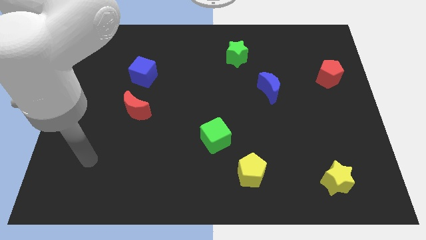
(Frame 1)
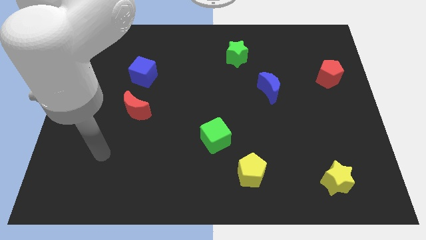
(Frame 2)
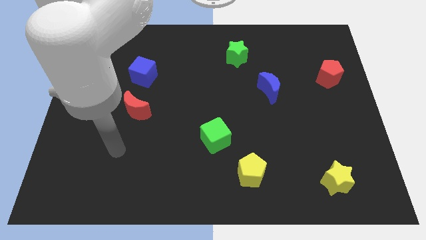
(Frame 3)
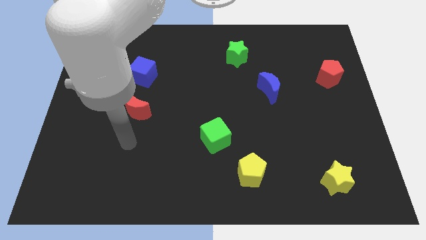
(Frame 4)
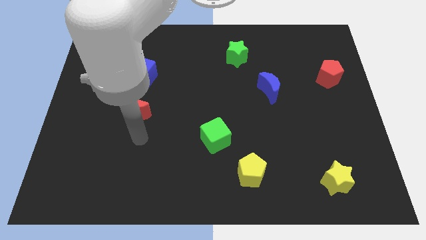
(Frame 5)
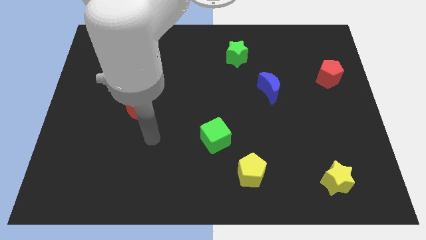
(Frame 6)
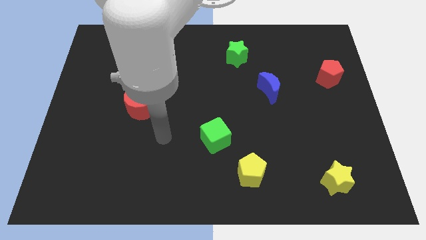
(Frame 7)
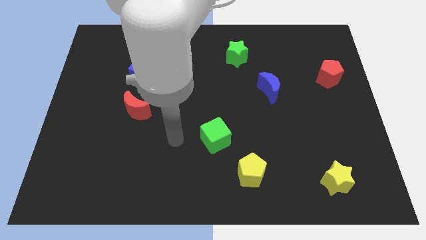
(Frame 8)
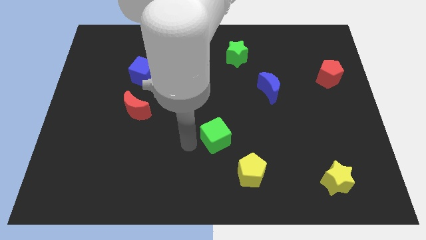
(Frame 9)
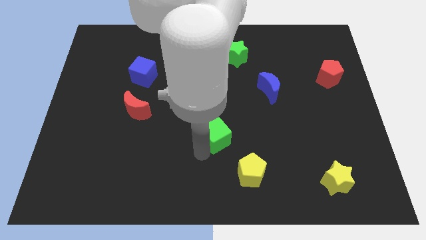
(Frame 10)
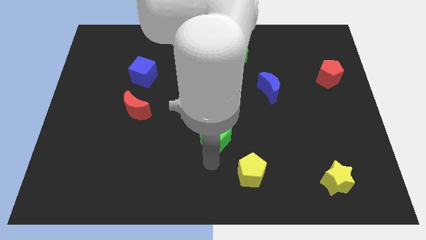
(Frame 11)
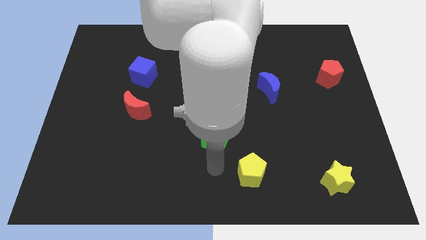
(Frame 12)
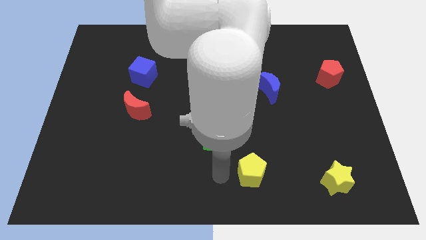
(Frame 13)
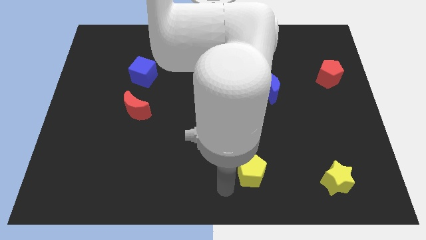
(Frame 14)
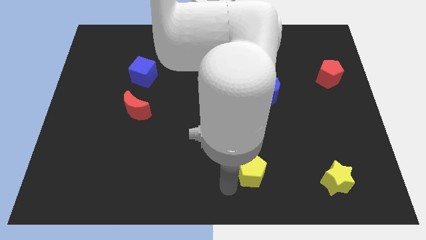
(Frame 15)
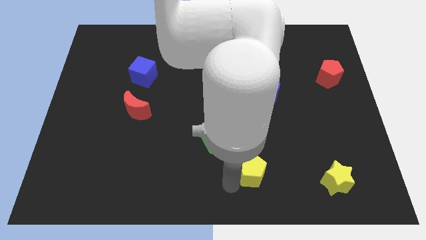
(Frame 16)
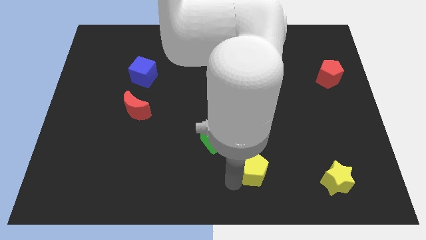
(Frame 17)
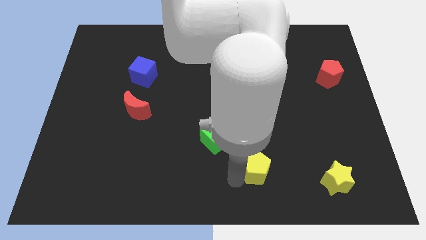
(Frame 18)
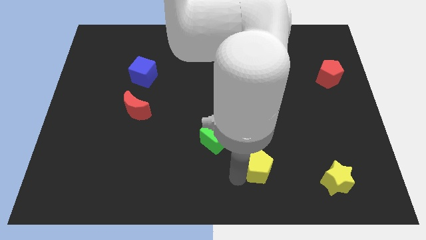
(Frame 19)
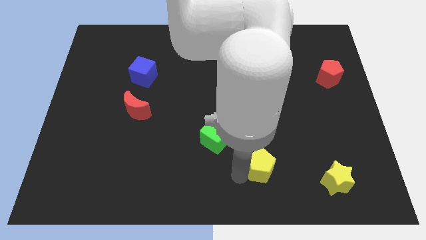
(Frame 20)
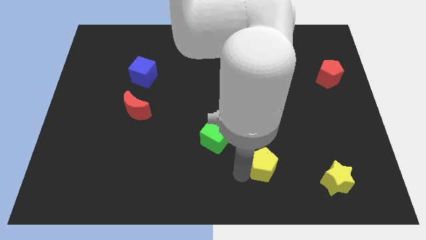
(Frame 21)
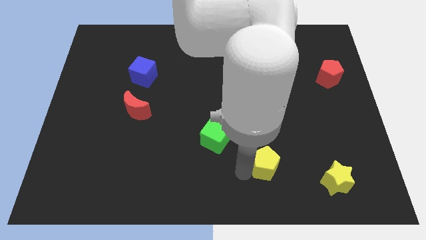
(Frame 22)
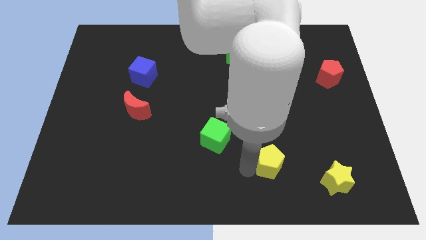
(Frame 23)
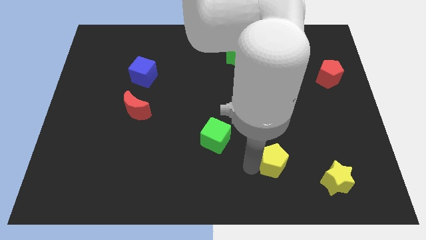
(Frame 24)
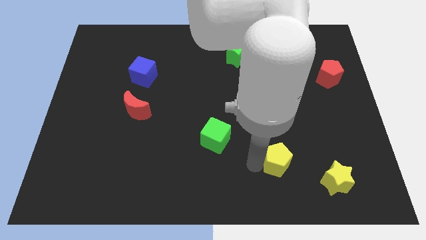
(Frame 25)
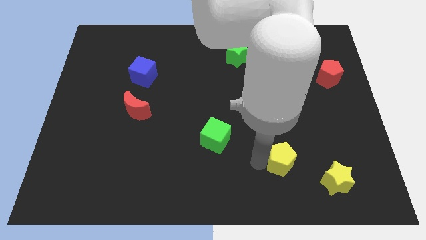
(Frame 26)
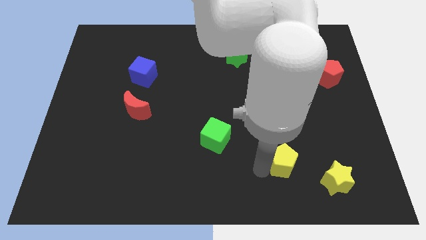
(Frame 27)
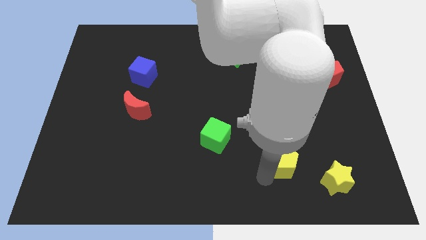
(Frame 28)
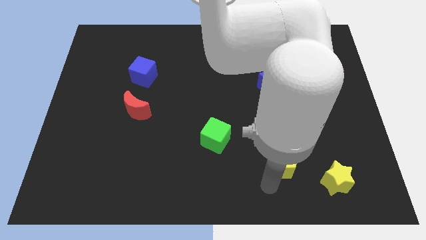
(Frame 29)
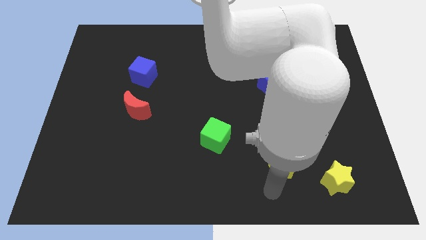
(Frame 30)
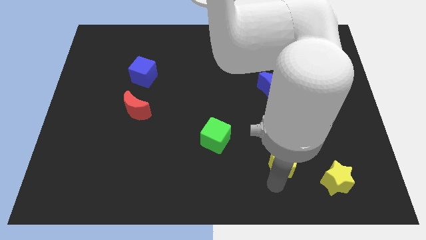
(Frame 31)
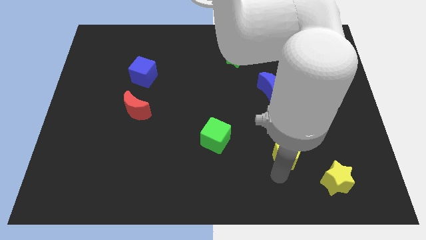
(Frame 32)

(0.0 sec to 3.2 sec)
slide the yellow pentagon upwards and right diagonally a little

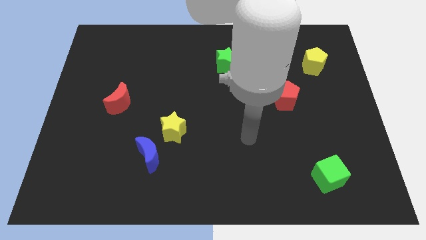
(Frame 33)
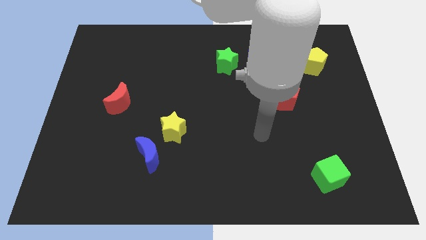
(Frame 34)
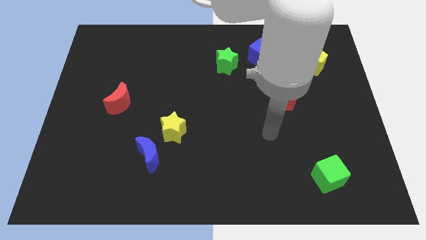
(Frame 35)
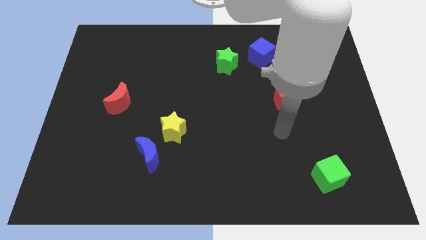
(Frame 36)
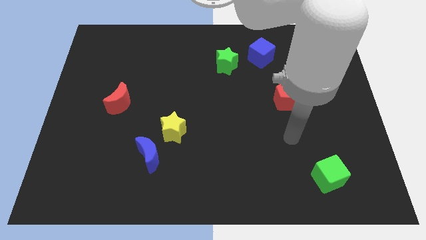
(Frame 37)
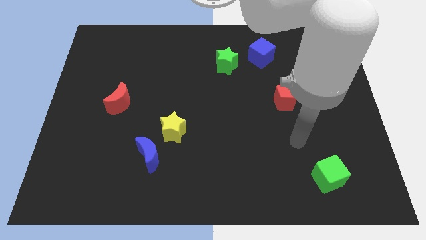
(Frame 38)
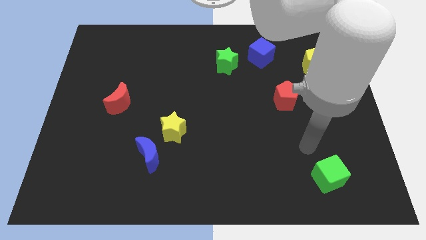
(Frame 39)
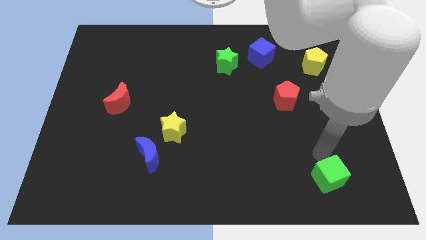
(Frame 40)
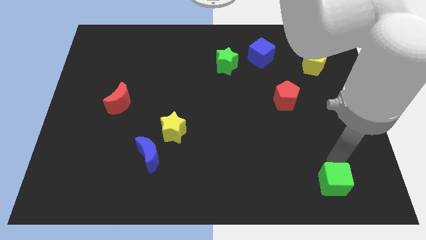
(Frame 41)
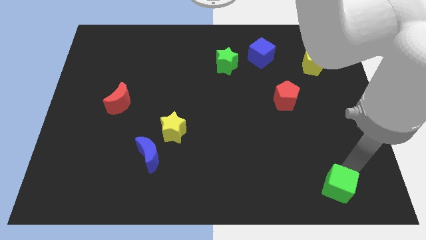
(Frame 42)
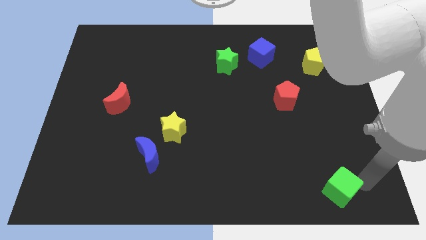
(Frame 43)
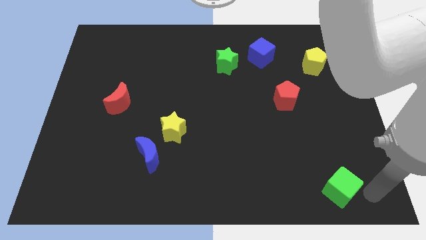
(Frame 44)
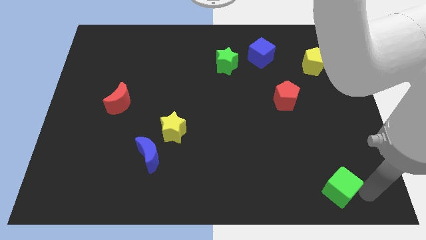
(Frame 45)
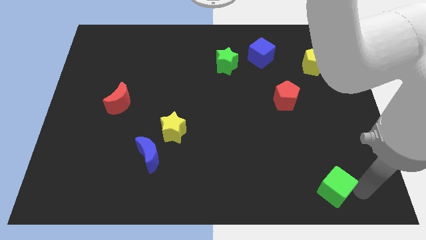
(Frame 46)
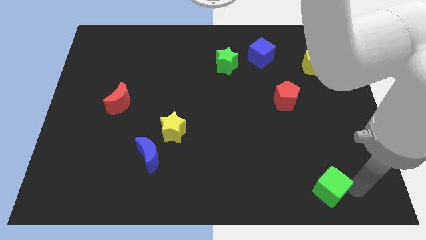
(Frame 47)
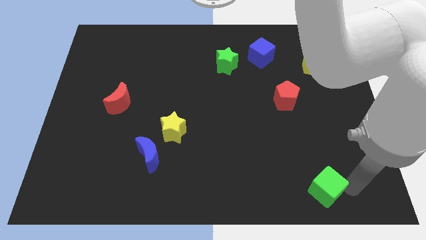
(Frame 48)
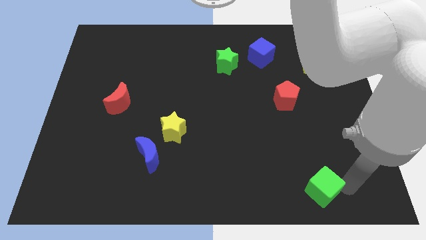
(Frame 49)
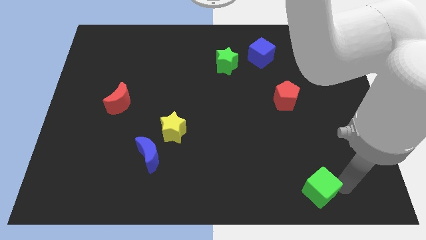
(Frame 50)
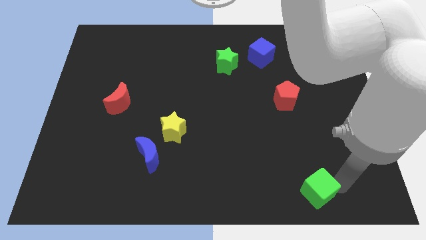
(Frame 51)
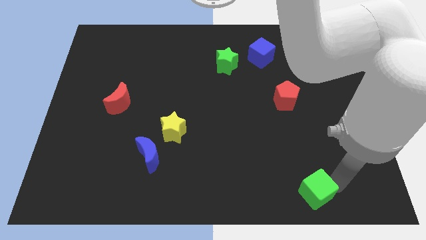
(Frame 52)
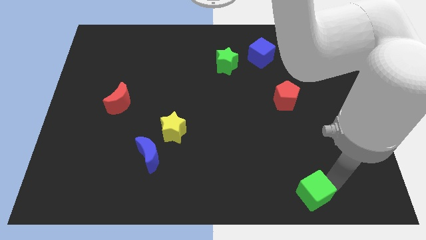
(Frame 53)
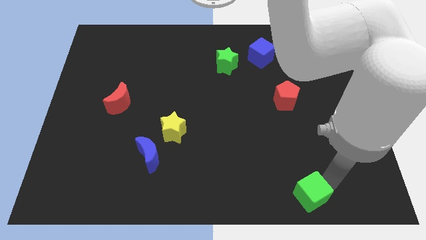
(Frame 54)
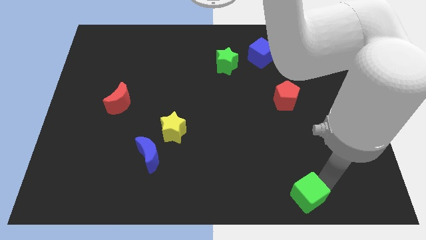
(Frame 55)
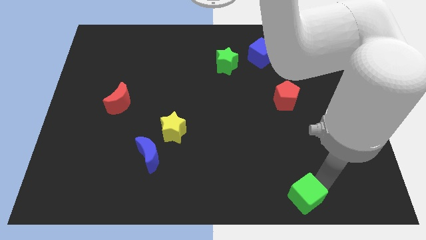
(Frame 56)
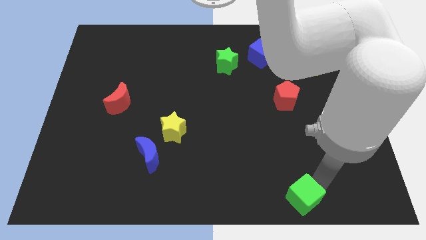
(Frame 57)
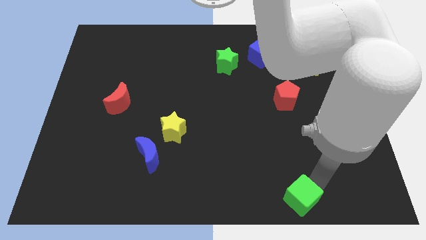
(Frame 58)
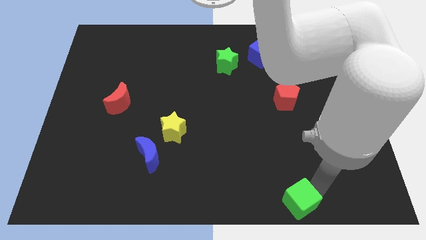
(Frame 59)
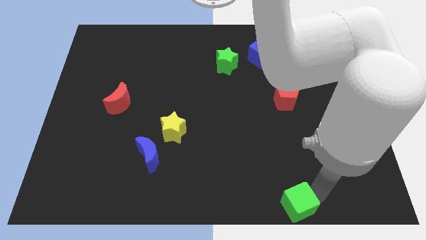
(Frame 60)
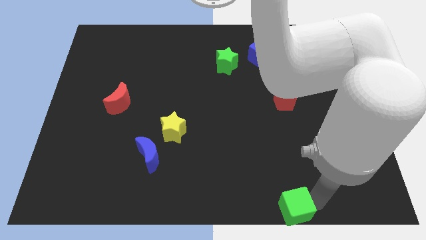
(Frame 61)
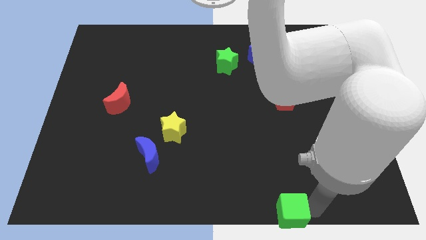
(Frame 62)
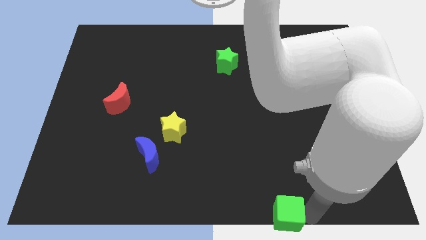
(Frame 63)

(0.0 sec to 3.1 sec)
slightly move the green cube to the left

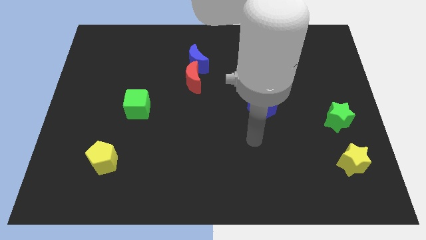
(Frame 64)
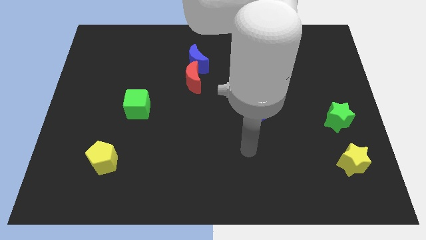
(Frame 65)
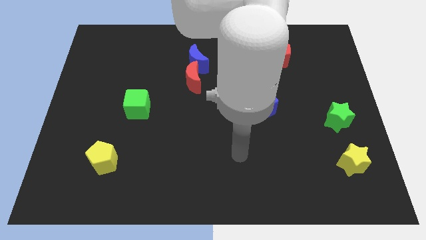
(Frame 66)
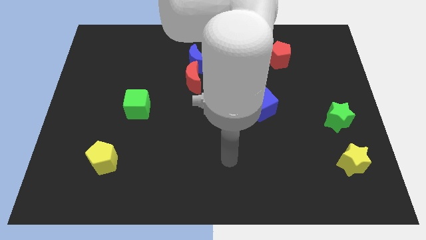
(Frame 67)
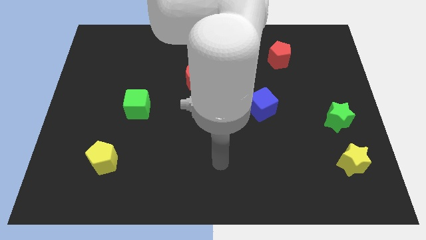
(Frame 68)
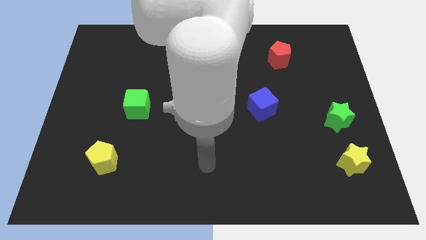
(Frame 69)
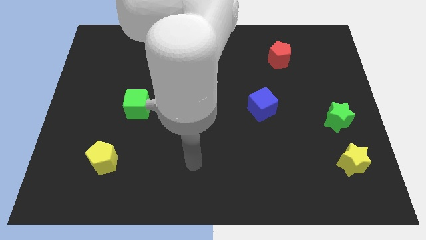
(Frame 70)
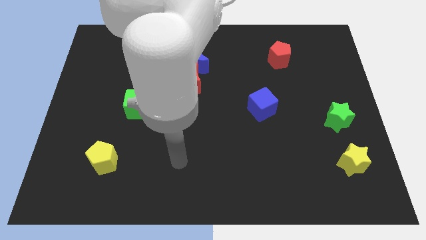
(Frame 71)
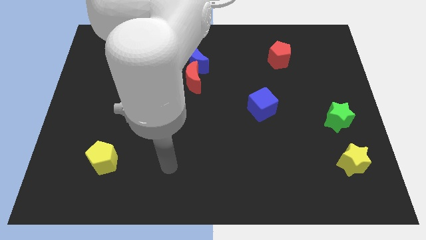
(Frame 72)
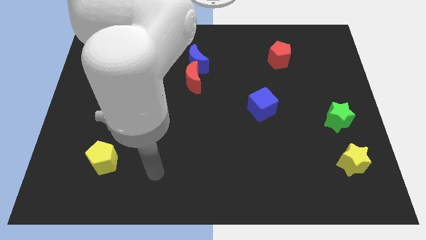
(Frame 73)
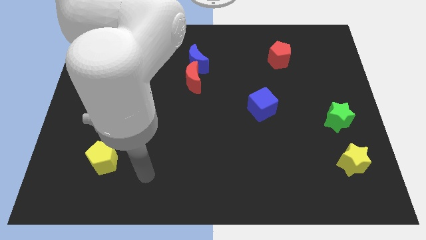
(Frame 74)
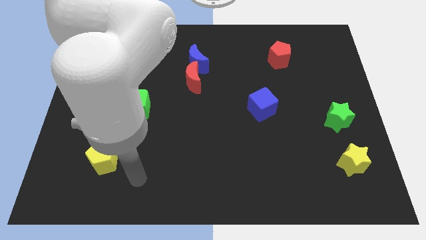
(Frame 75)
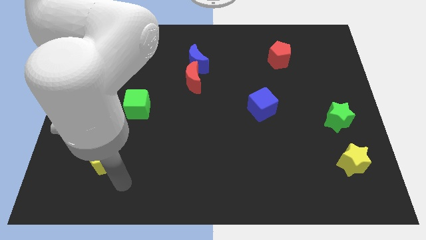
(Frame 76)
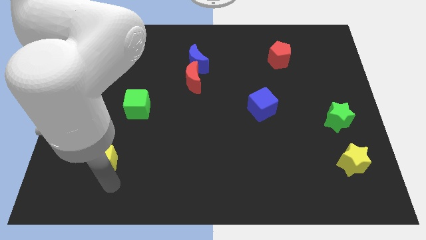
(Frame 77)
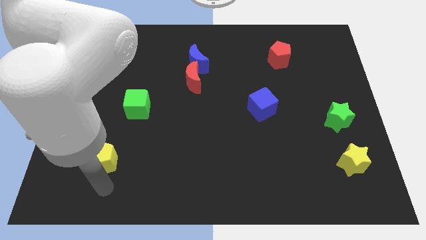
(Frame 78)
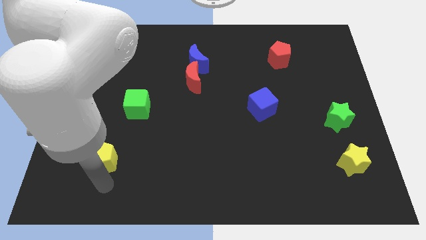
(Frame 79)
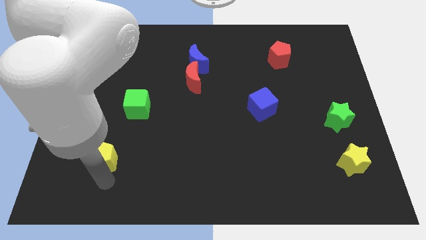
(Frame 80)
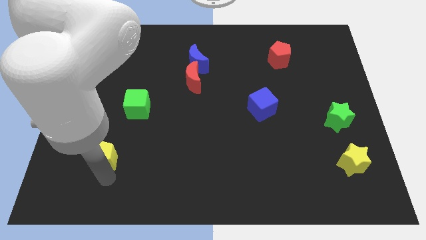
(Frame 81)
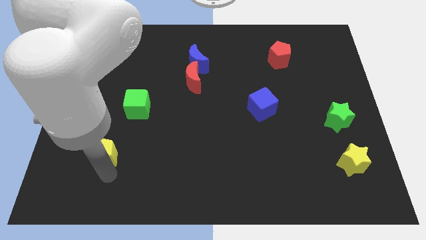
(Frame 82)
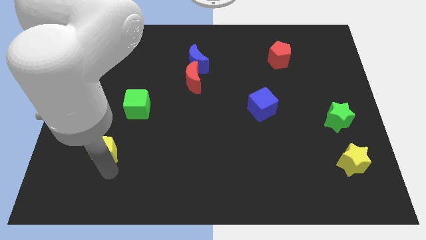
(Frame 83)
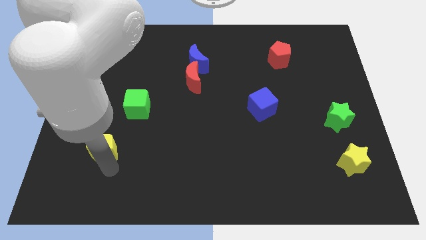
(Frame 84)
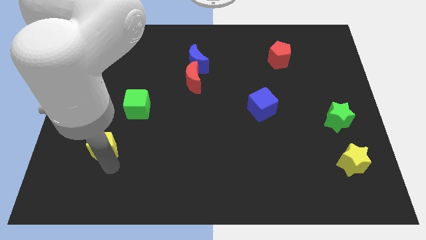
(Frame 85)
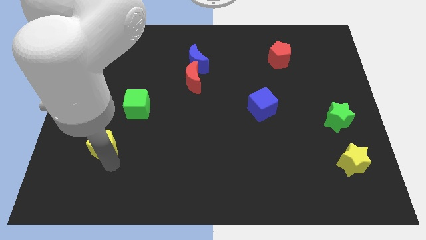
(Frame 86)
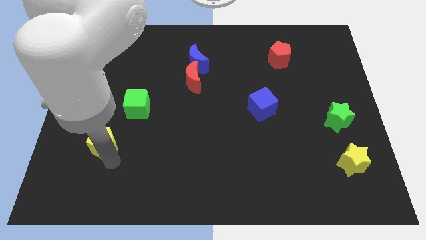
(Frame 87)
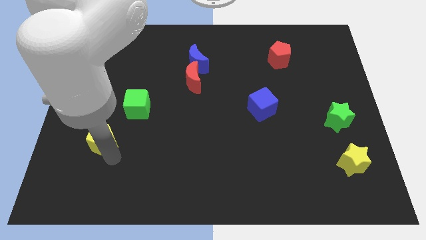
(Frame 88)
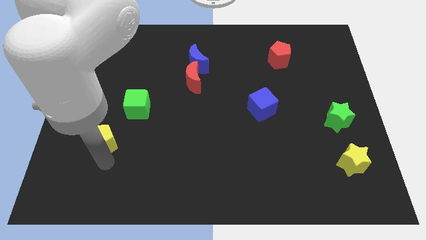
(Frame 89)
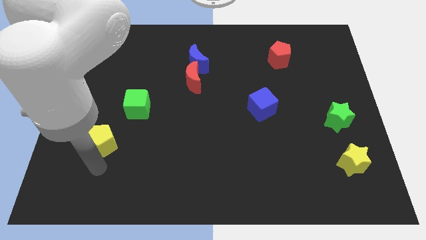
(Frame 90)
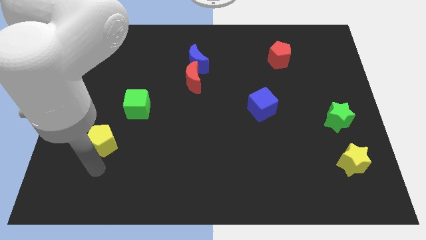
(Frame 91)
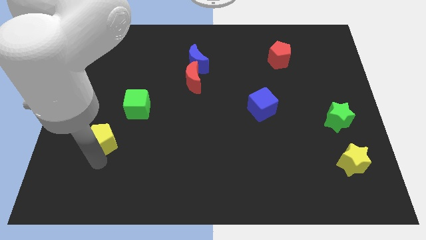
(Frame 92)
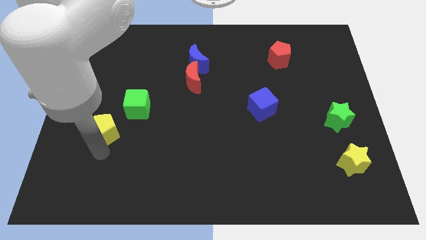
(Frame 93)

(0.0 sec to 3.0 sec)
move the yellow pentagon up a bit
